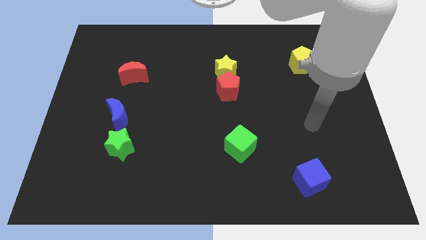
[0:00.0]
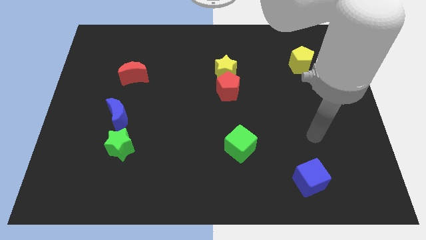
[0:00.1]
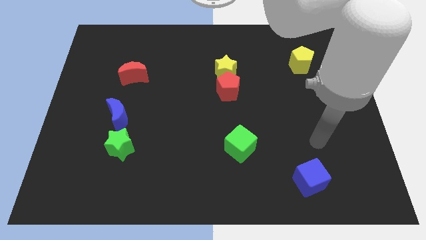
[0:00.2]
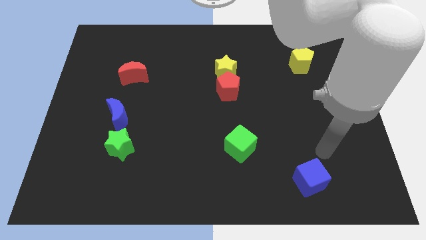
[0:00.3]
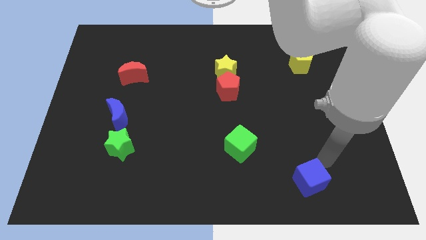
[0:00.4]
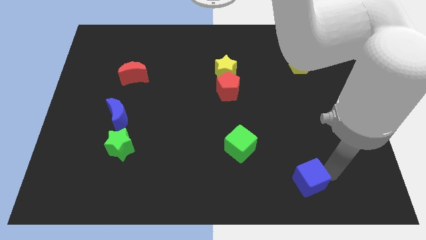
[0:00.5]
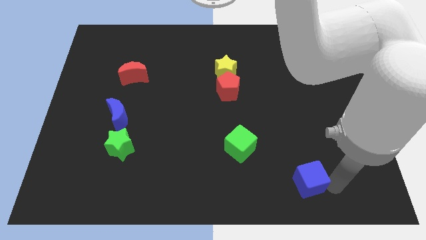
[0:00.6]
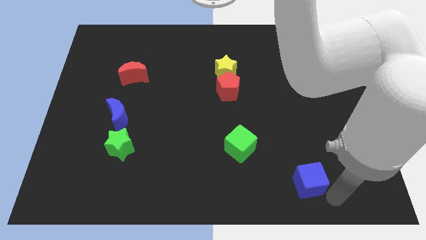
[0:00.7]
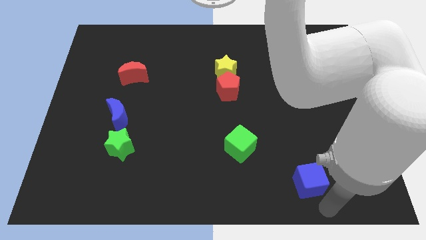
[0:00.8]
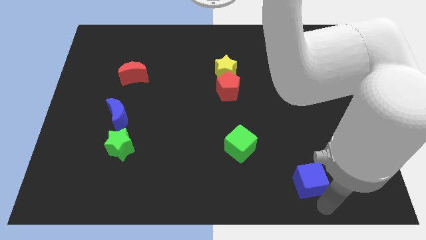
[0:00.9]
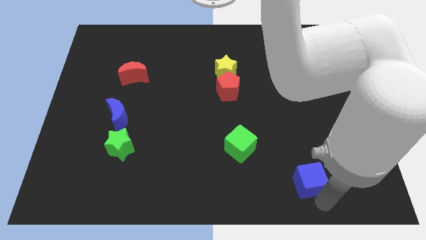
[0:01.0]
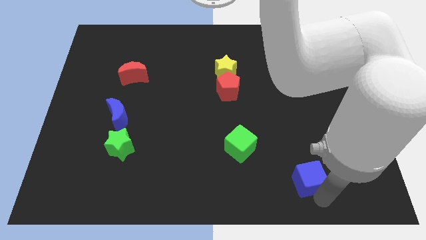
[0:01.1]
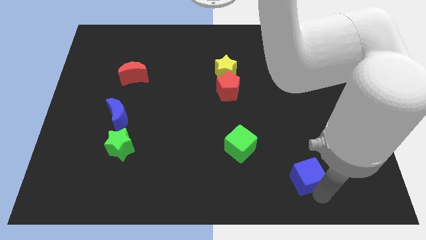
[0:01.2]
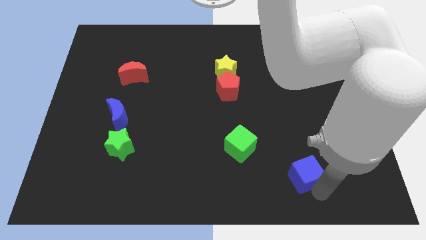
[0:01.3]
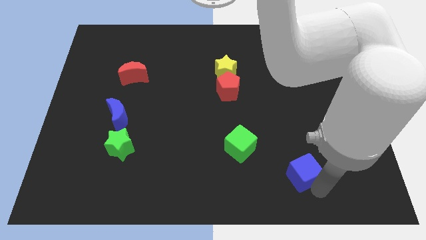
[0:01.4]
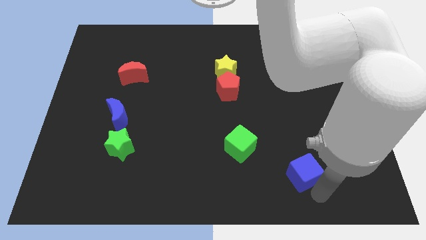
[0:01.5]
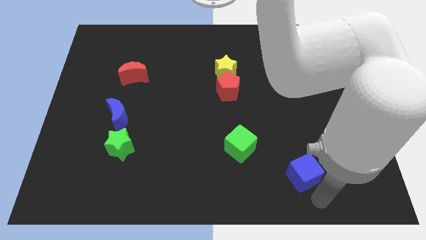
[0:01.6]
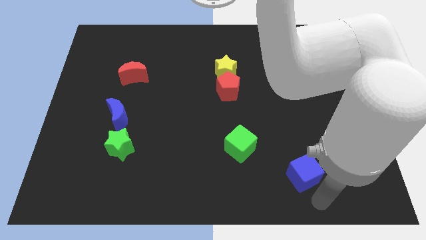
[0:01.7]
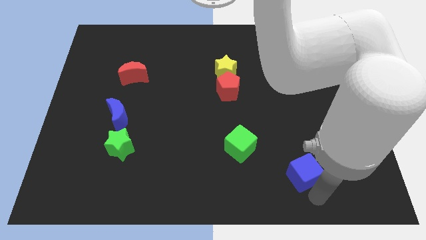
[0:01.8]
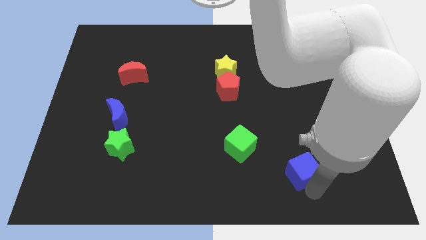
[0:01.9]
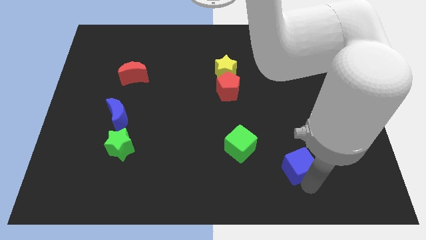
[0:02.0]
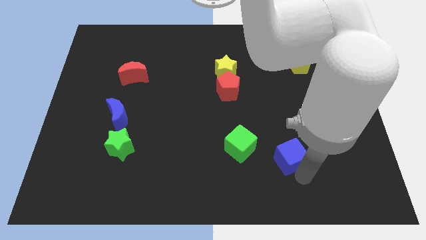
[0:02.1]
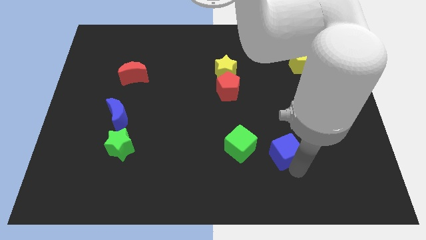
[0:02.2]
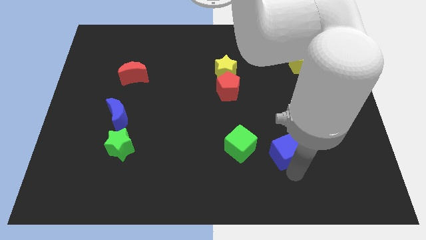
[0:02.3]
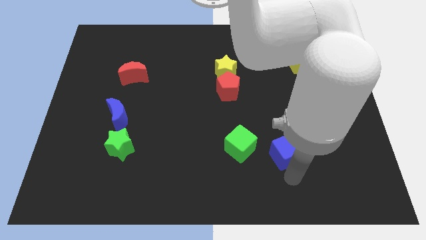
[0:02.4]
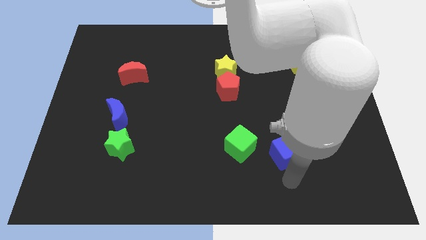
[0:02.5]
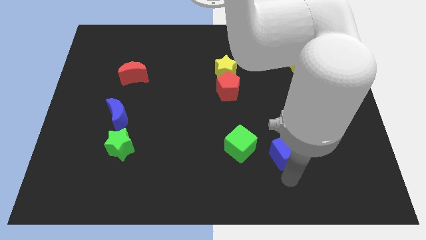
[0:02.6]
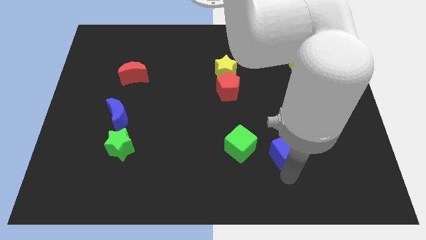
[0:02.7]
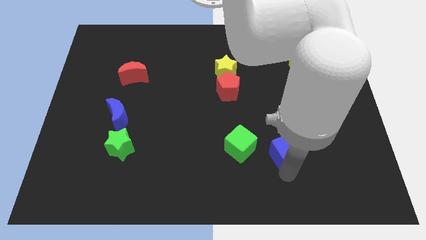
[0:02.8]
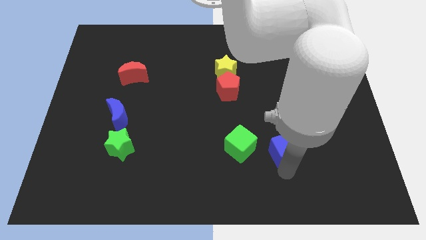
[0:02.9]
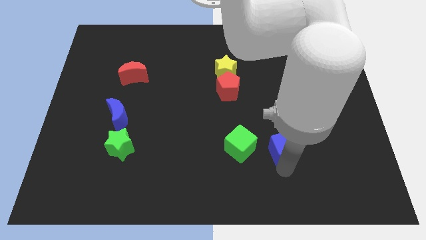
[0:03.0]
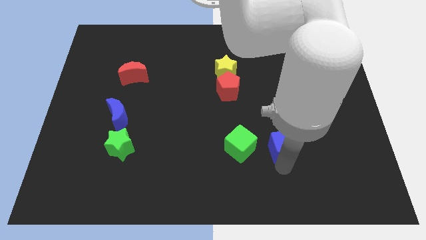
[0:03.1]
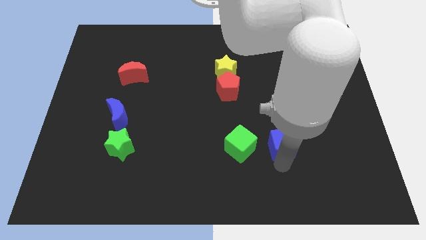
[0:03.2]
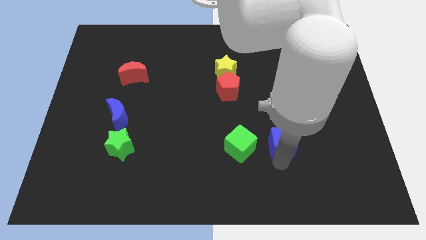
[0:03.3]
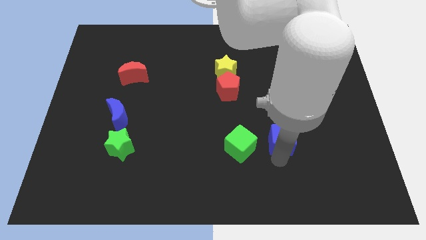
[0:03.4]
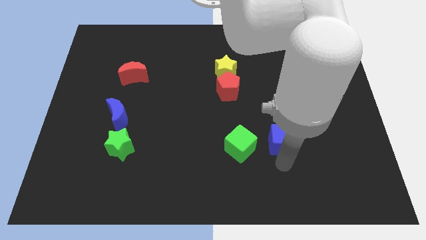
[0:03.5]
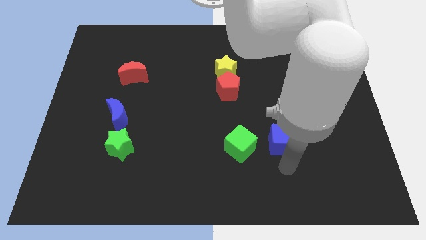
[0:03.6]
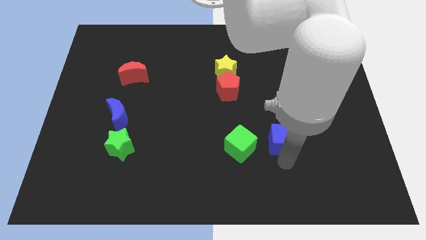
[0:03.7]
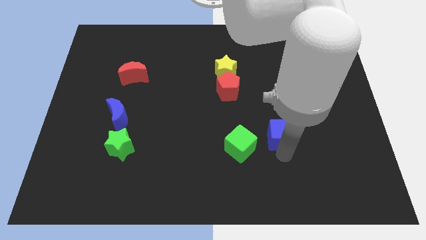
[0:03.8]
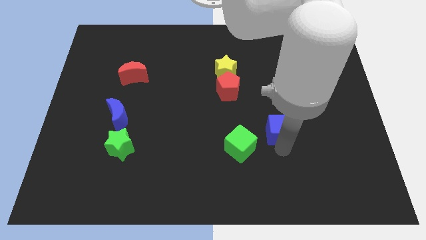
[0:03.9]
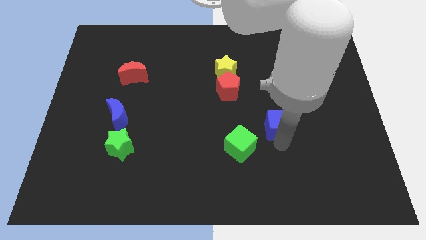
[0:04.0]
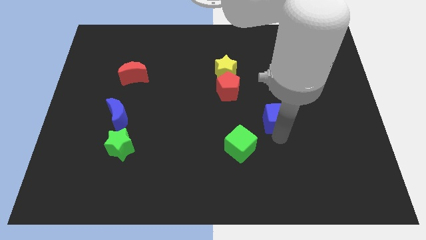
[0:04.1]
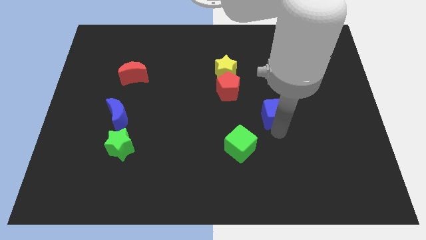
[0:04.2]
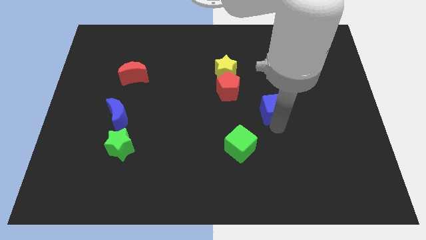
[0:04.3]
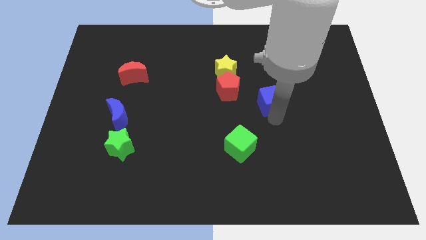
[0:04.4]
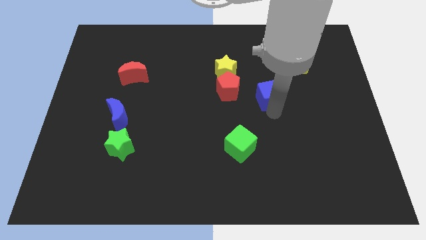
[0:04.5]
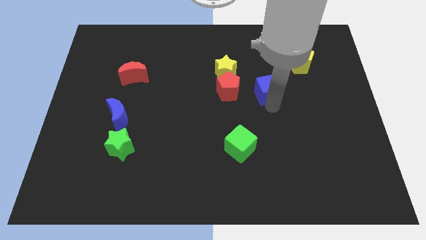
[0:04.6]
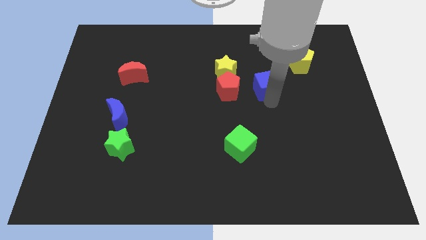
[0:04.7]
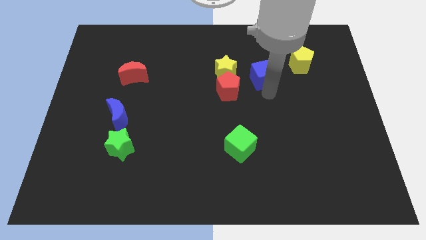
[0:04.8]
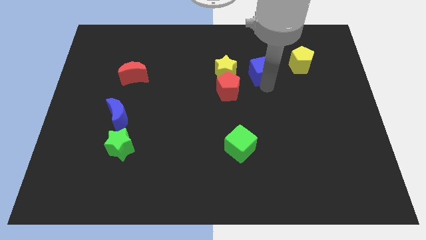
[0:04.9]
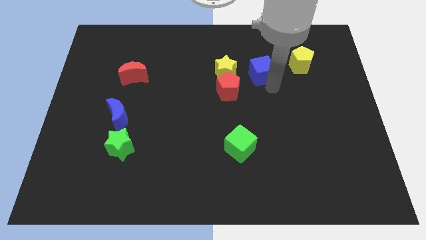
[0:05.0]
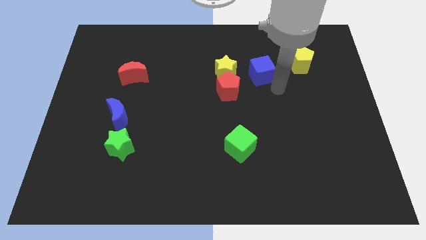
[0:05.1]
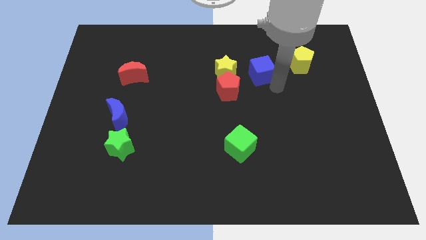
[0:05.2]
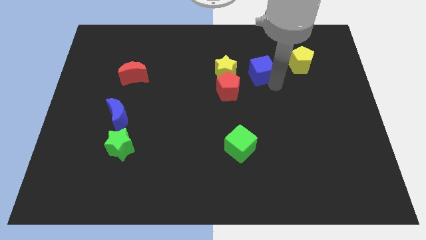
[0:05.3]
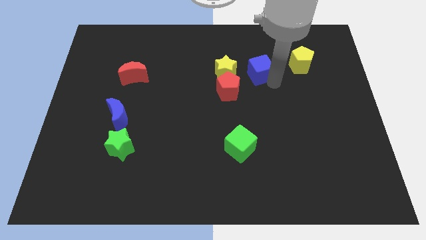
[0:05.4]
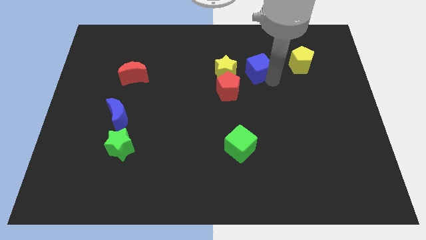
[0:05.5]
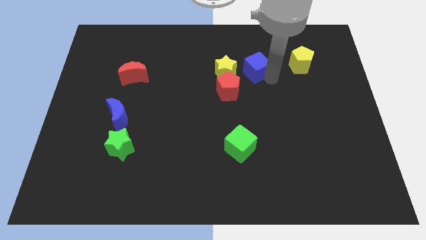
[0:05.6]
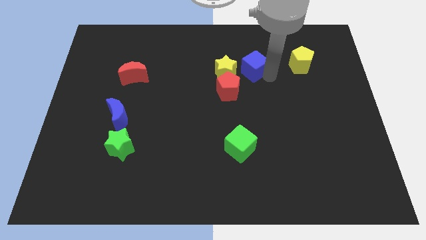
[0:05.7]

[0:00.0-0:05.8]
slide the blue cube to the top right side of the yellow star

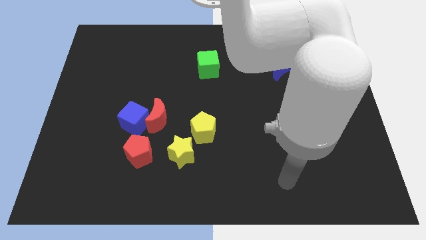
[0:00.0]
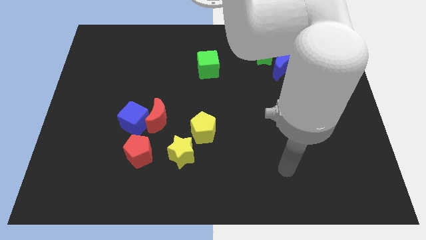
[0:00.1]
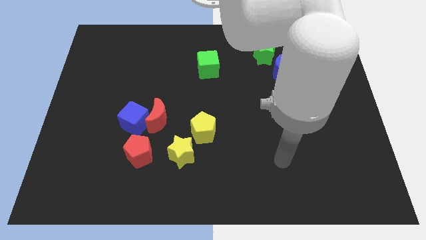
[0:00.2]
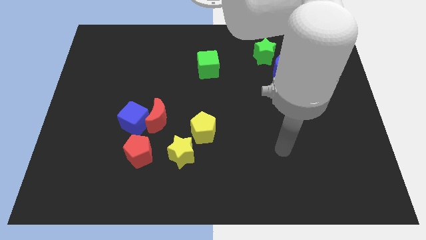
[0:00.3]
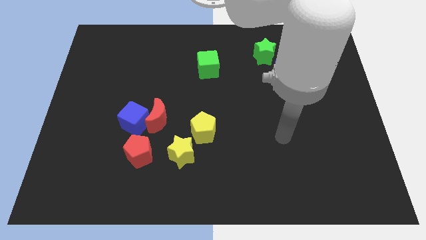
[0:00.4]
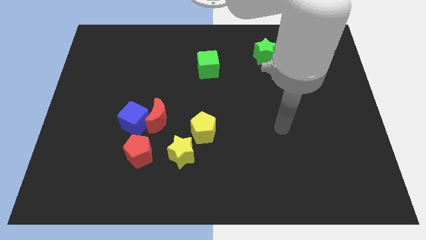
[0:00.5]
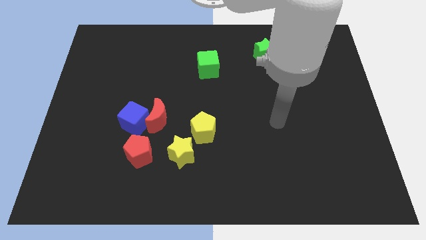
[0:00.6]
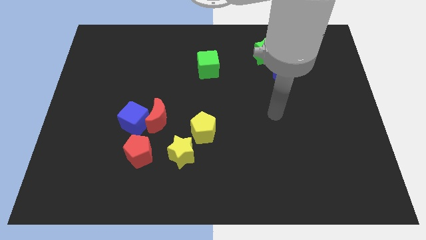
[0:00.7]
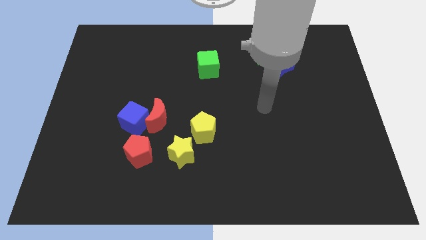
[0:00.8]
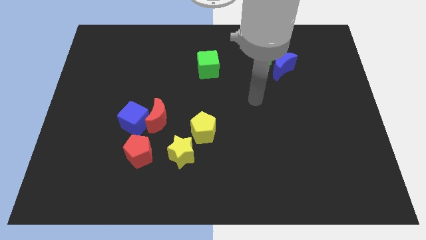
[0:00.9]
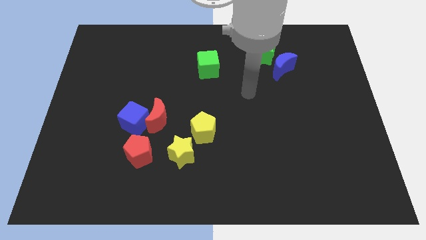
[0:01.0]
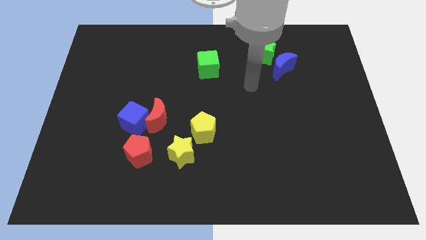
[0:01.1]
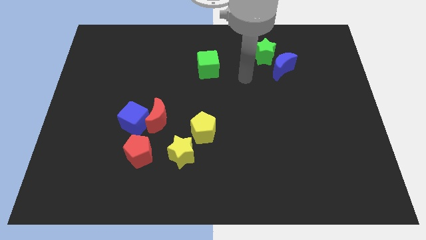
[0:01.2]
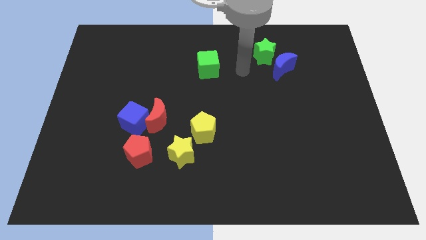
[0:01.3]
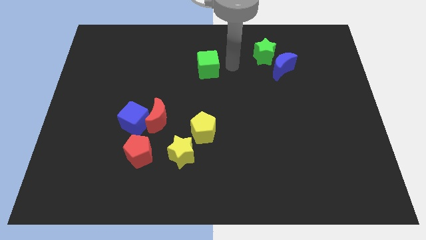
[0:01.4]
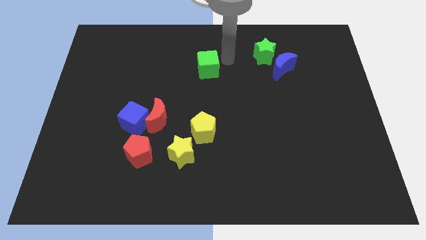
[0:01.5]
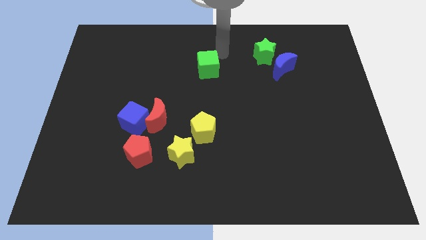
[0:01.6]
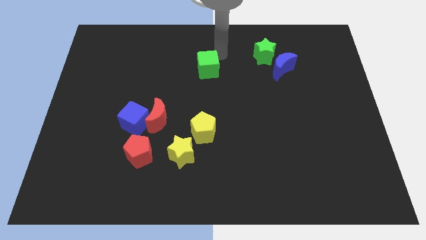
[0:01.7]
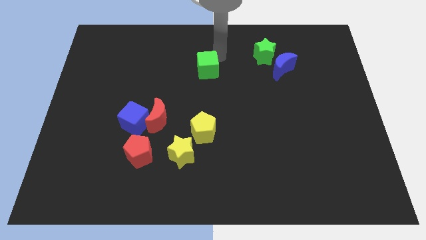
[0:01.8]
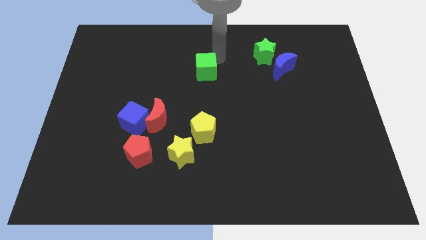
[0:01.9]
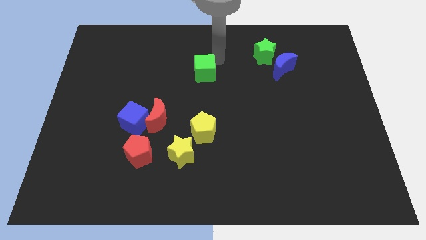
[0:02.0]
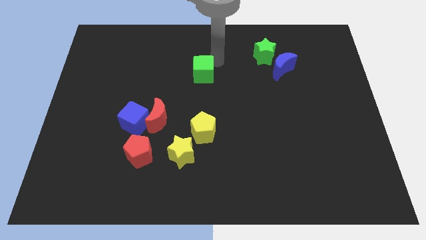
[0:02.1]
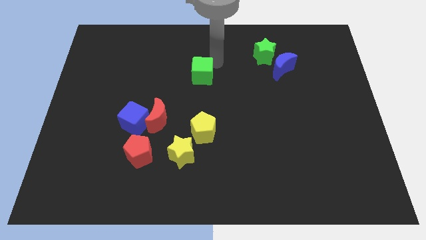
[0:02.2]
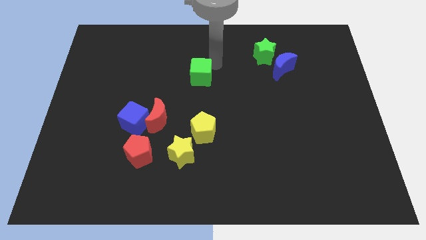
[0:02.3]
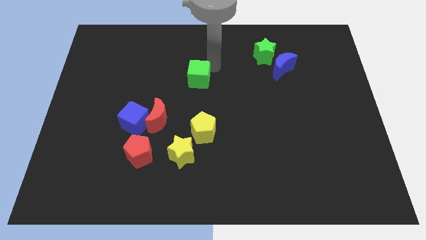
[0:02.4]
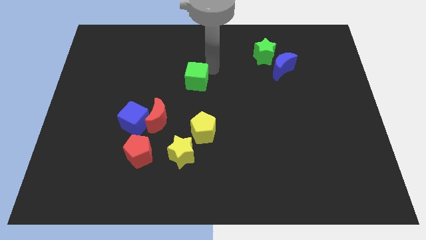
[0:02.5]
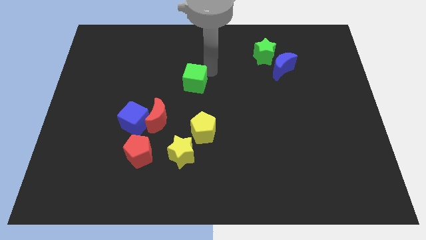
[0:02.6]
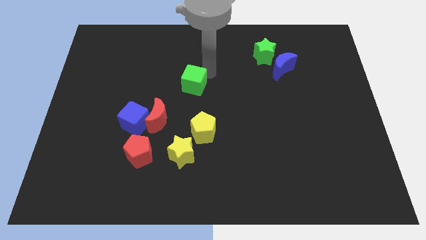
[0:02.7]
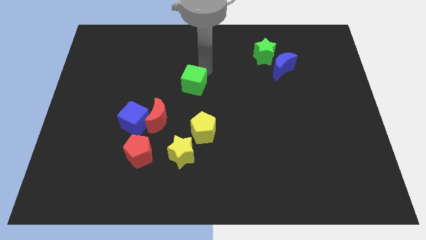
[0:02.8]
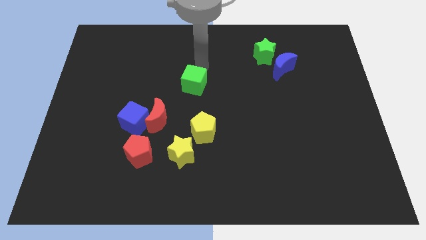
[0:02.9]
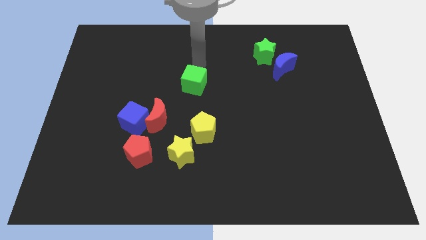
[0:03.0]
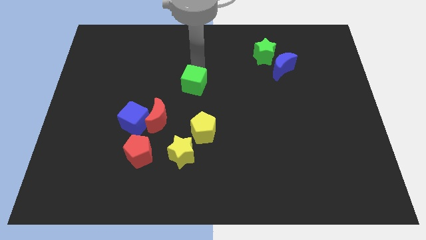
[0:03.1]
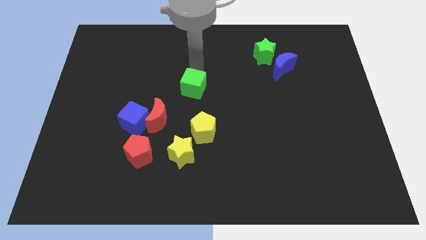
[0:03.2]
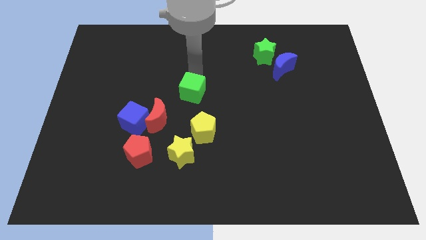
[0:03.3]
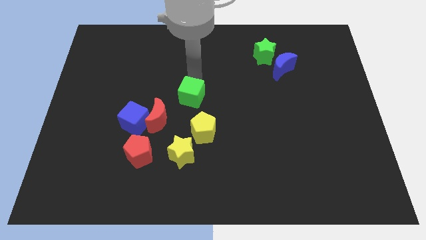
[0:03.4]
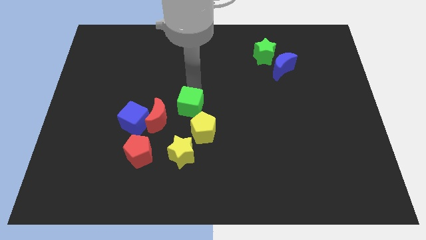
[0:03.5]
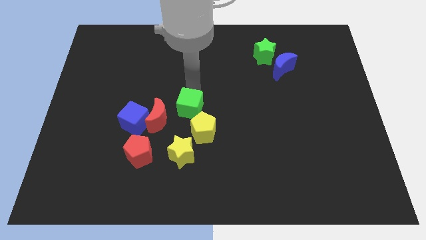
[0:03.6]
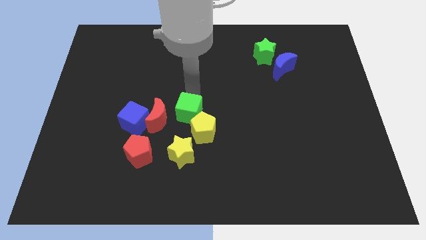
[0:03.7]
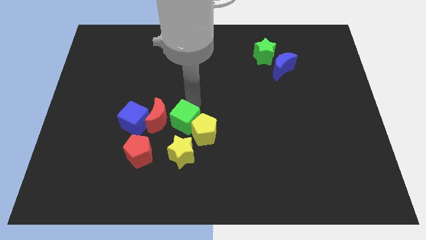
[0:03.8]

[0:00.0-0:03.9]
move the green cube to the top right of the red pentagon
